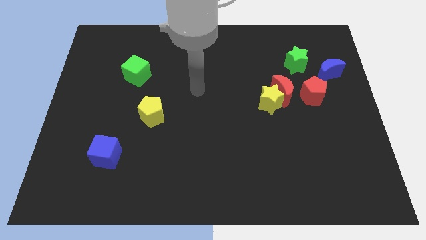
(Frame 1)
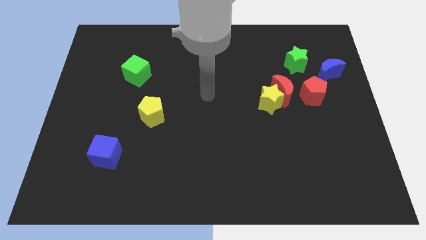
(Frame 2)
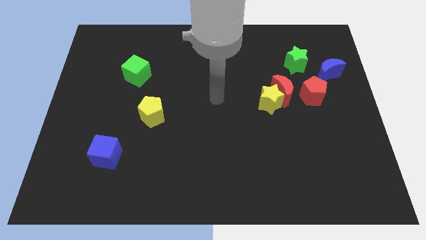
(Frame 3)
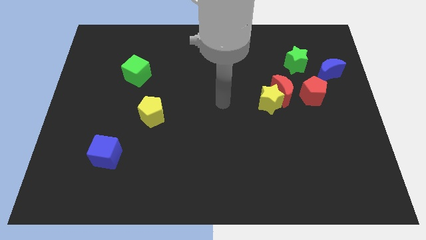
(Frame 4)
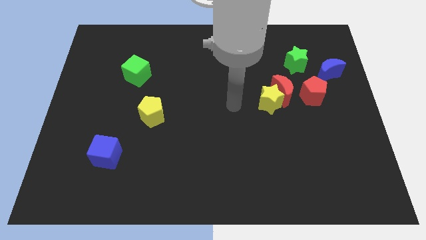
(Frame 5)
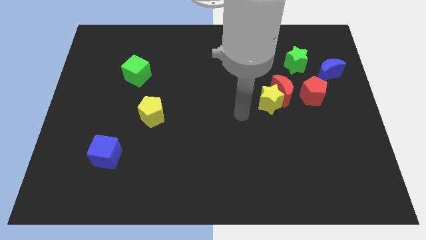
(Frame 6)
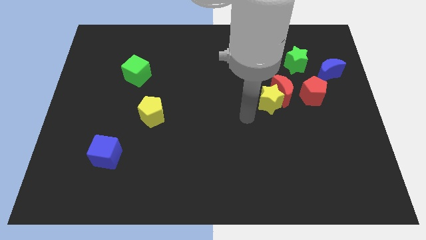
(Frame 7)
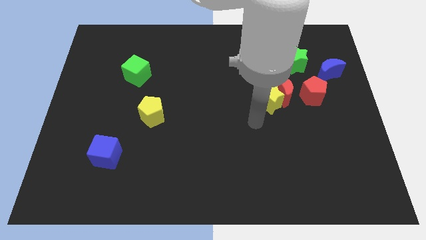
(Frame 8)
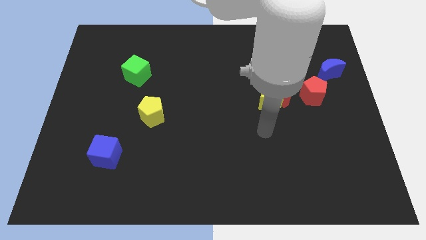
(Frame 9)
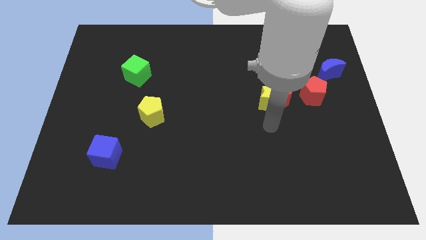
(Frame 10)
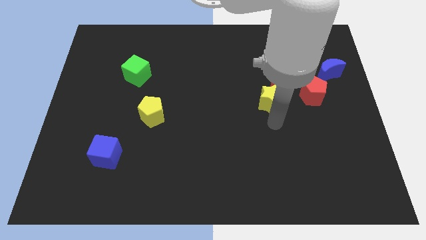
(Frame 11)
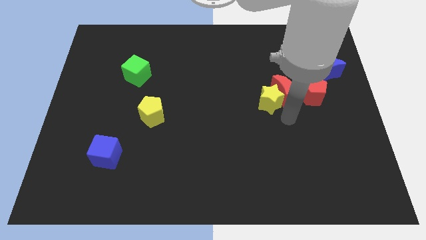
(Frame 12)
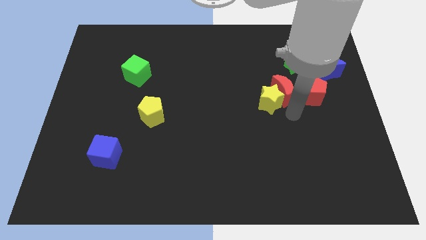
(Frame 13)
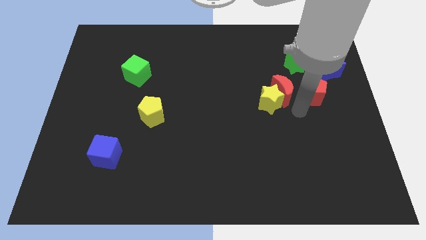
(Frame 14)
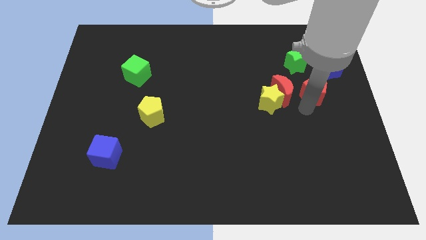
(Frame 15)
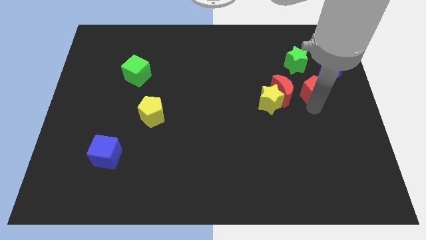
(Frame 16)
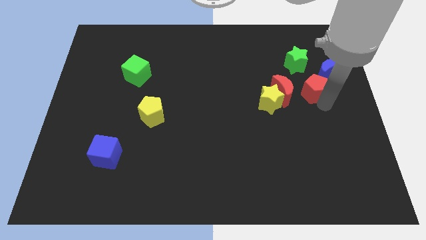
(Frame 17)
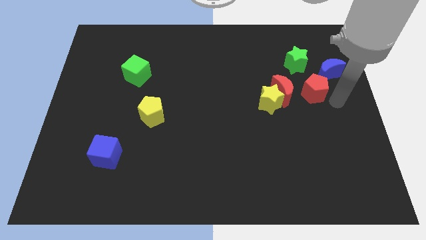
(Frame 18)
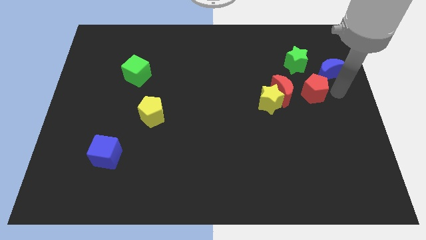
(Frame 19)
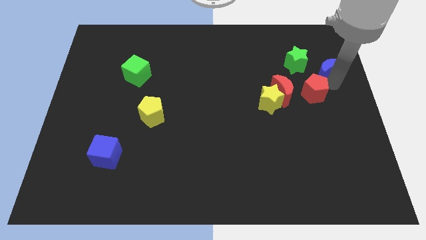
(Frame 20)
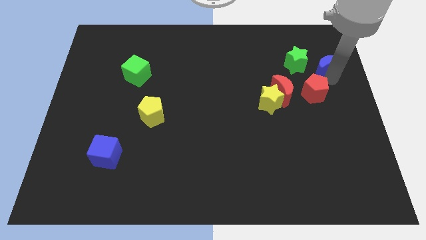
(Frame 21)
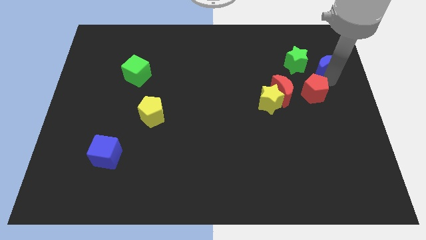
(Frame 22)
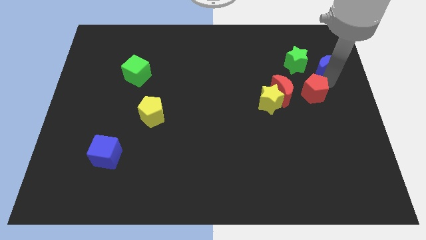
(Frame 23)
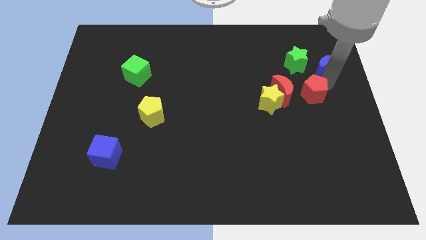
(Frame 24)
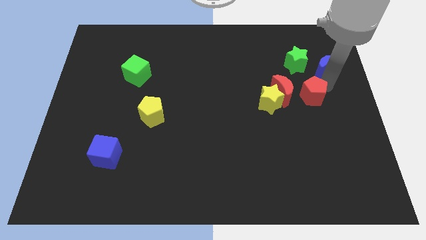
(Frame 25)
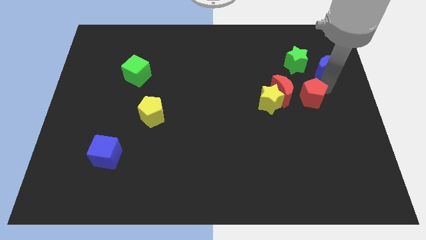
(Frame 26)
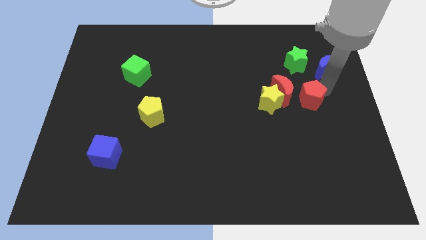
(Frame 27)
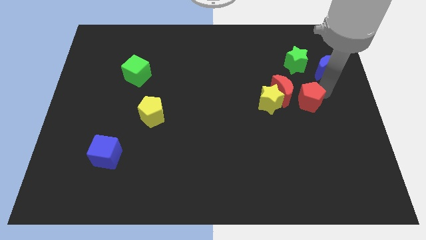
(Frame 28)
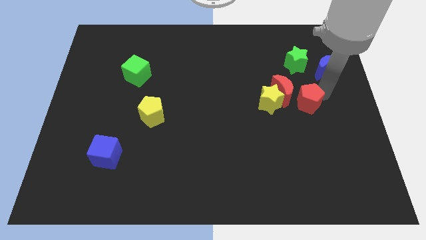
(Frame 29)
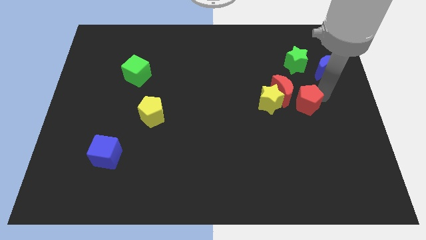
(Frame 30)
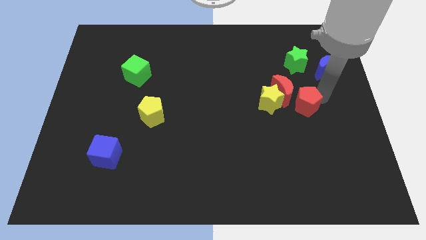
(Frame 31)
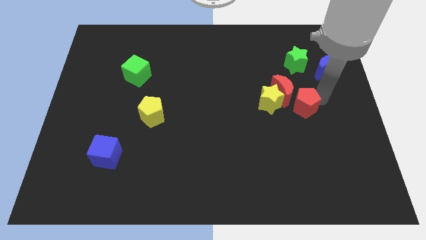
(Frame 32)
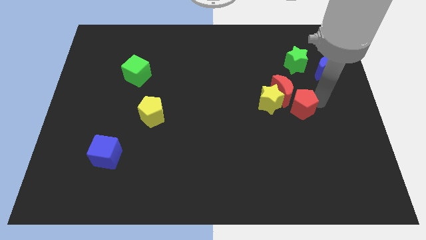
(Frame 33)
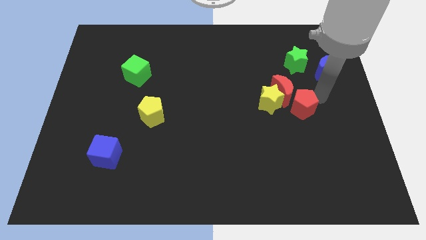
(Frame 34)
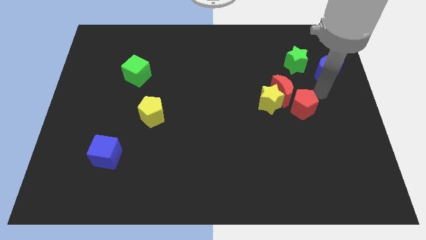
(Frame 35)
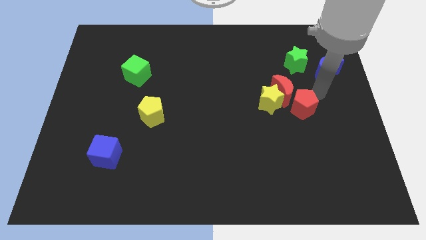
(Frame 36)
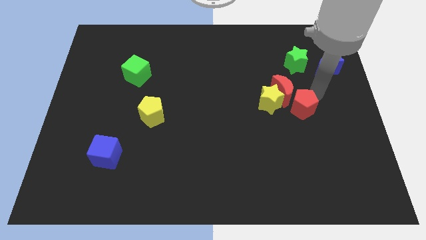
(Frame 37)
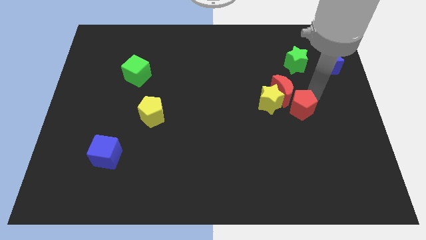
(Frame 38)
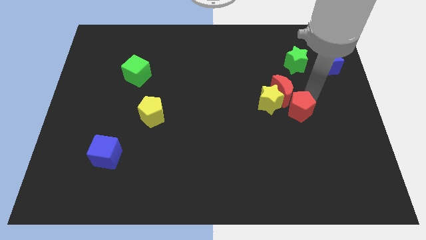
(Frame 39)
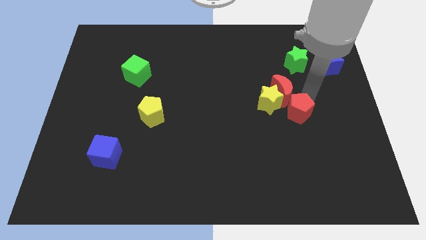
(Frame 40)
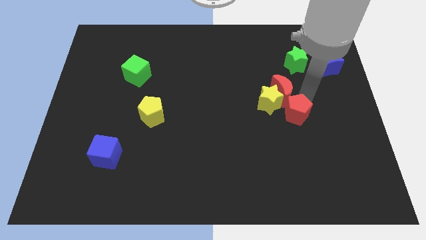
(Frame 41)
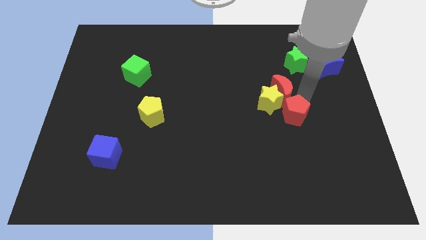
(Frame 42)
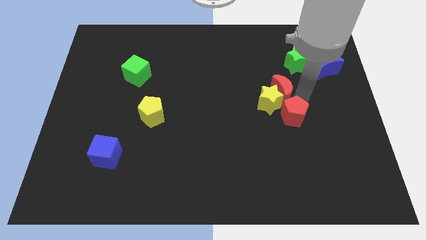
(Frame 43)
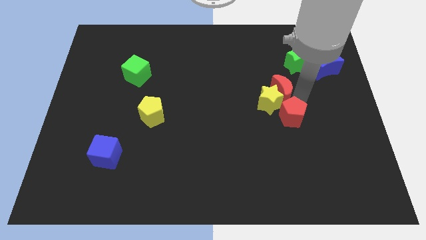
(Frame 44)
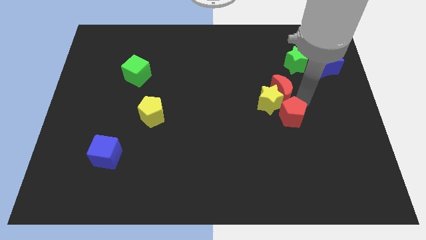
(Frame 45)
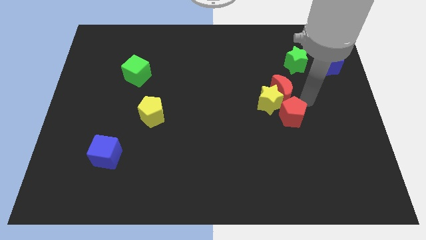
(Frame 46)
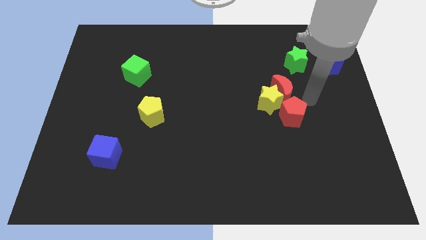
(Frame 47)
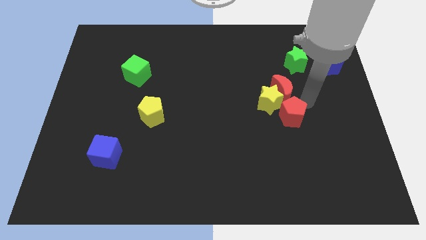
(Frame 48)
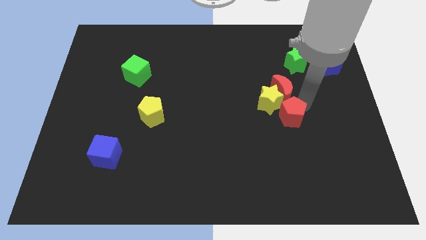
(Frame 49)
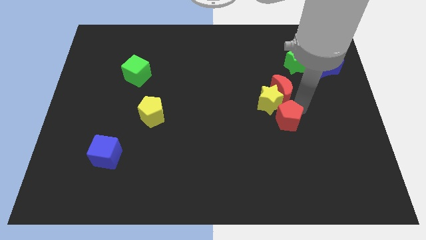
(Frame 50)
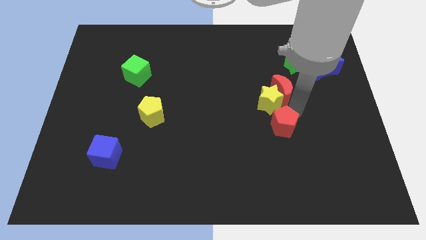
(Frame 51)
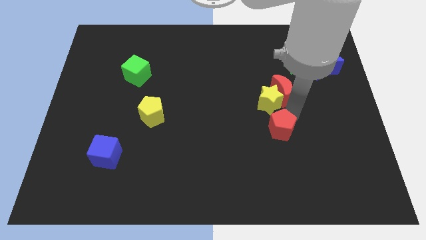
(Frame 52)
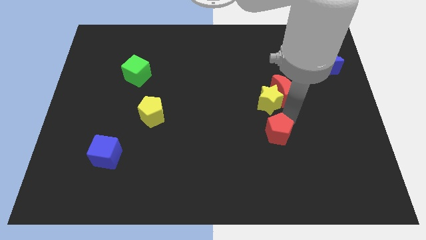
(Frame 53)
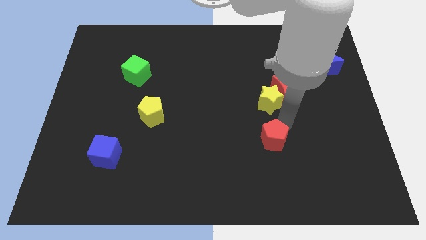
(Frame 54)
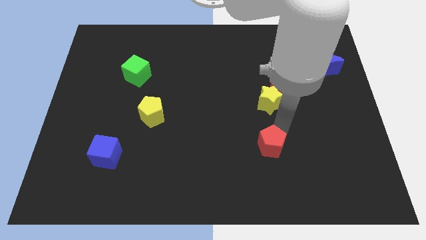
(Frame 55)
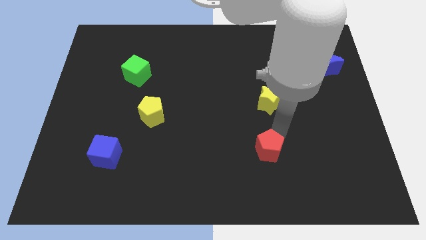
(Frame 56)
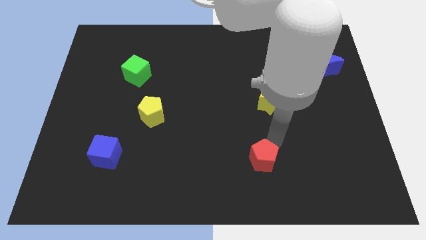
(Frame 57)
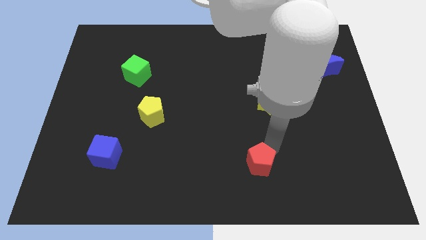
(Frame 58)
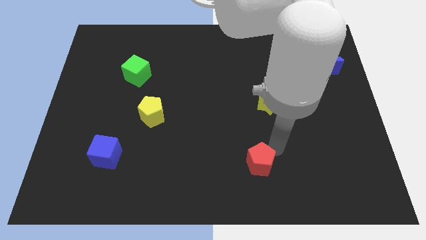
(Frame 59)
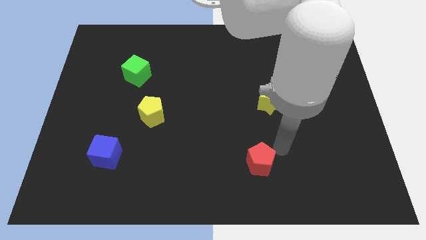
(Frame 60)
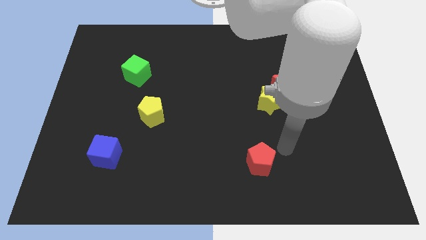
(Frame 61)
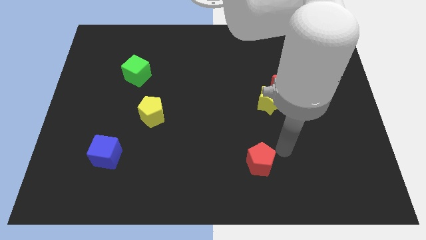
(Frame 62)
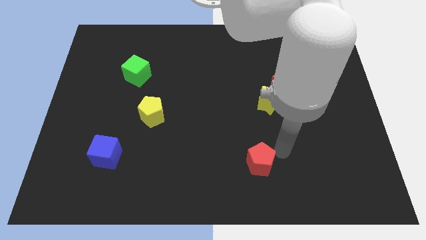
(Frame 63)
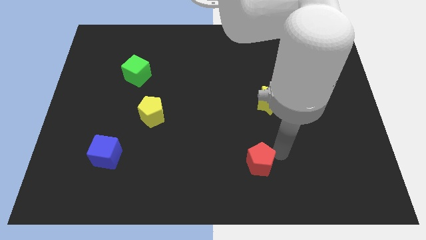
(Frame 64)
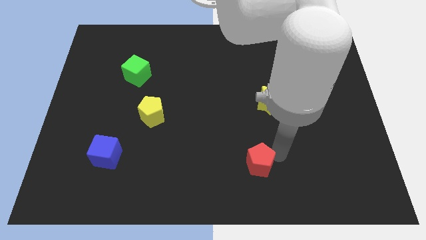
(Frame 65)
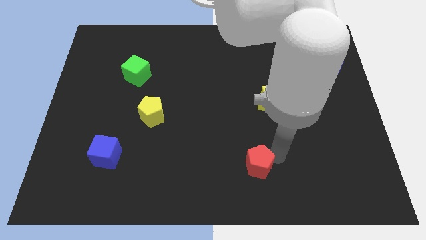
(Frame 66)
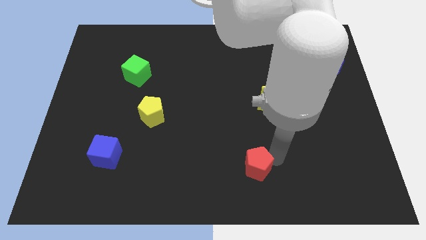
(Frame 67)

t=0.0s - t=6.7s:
move the red pentagon to the bottom side
